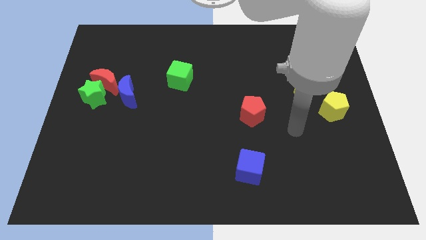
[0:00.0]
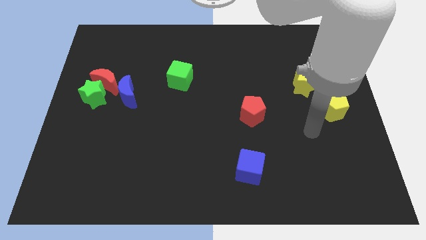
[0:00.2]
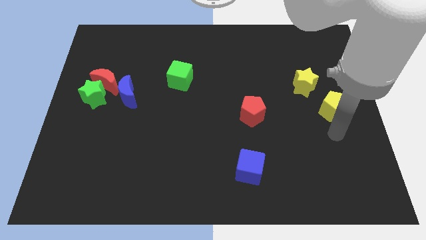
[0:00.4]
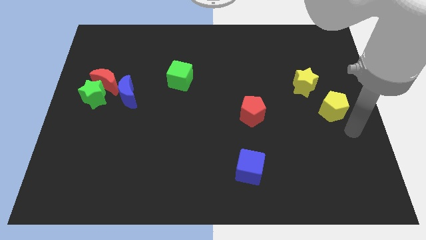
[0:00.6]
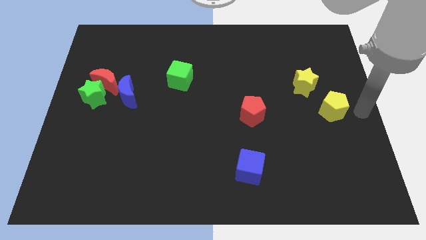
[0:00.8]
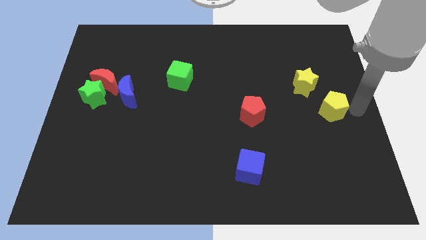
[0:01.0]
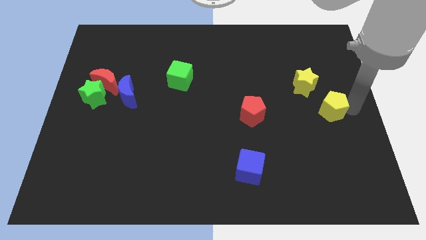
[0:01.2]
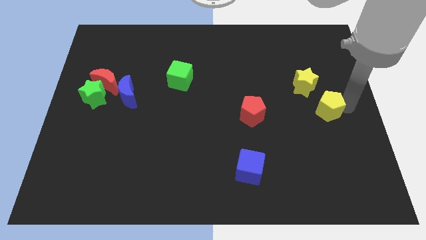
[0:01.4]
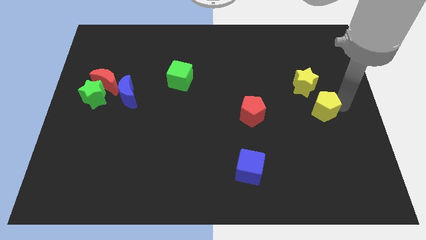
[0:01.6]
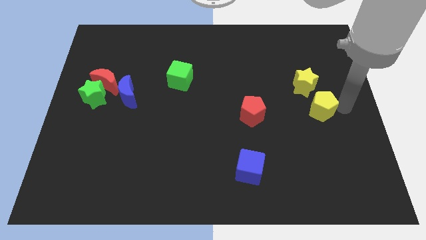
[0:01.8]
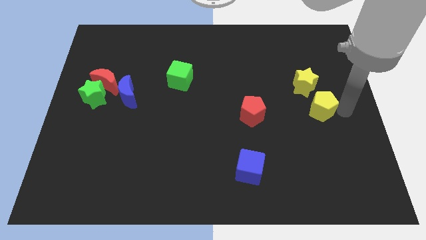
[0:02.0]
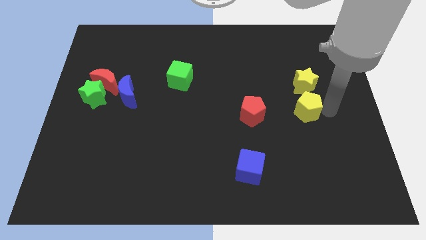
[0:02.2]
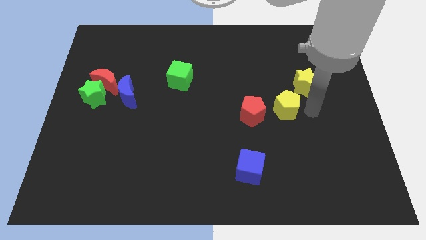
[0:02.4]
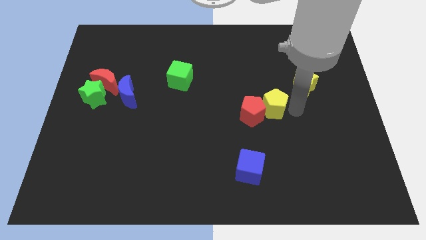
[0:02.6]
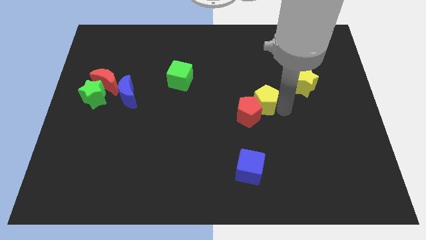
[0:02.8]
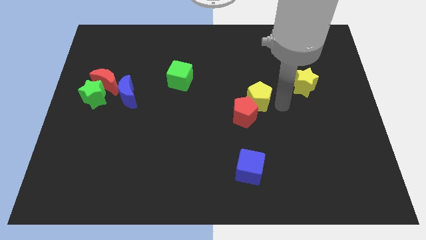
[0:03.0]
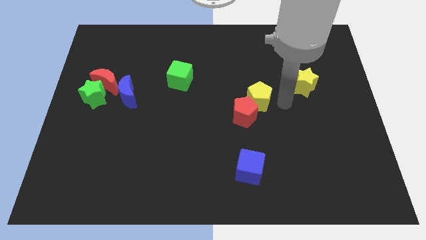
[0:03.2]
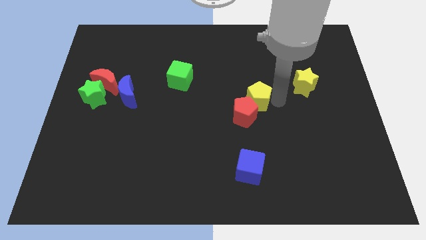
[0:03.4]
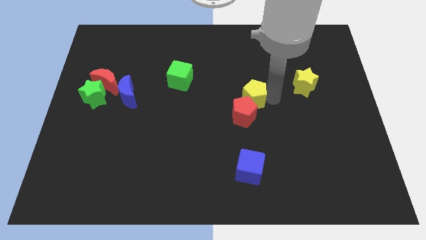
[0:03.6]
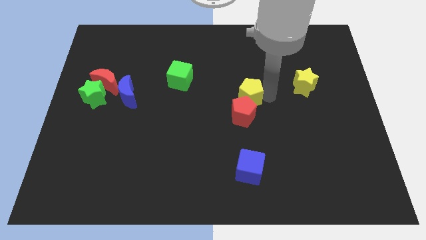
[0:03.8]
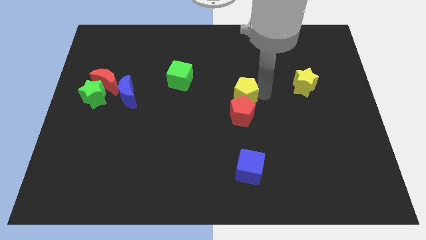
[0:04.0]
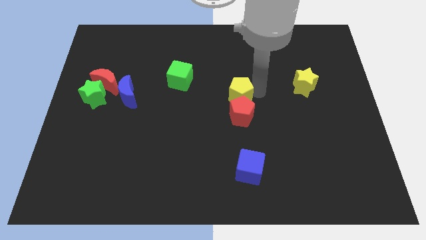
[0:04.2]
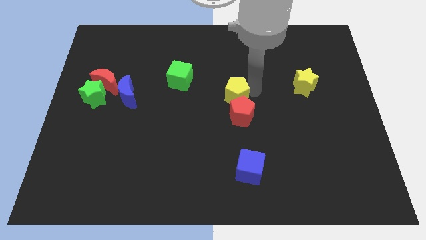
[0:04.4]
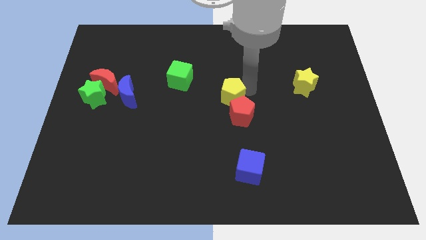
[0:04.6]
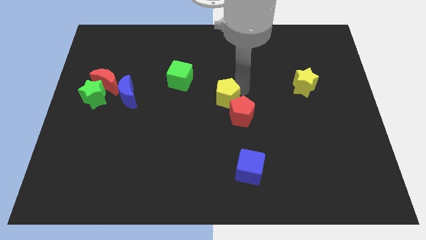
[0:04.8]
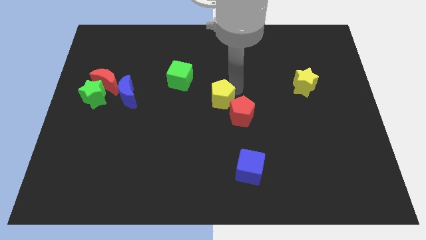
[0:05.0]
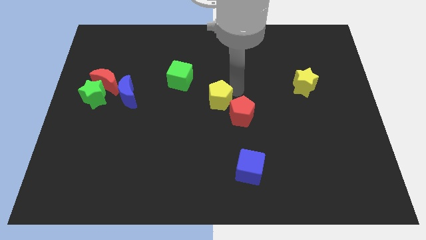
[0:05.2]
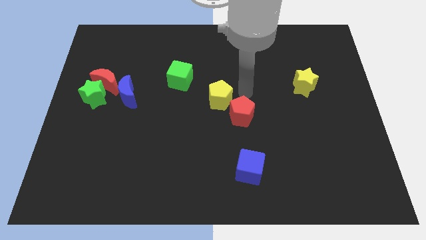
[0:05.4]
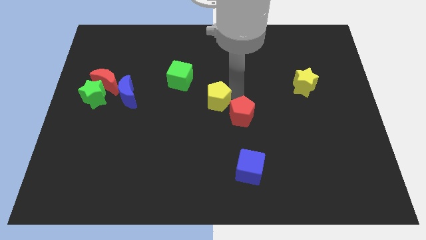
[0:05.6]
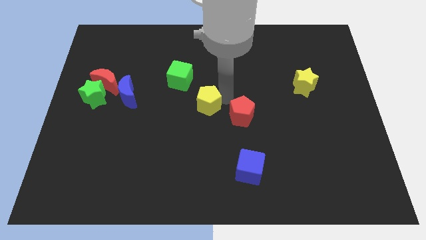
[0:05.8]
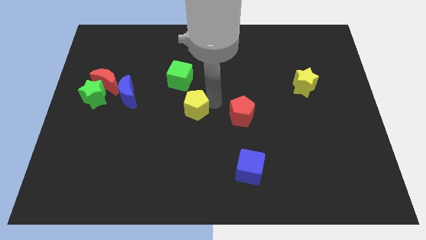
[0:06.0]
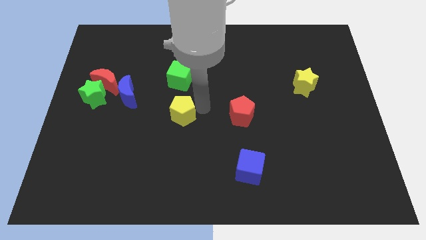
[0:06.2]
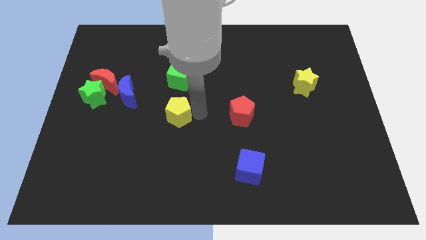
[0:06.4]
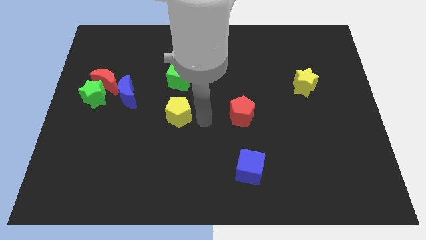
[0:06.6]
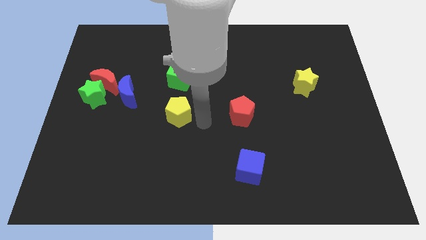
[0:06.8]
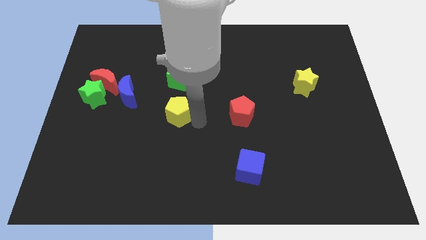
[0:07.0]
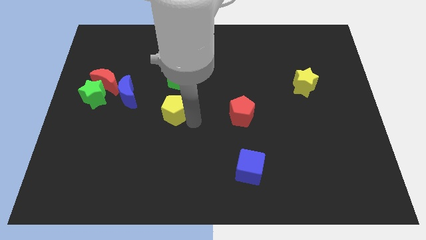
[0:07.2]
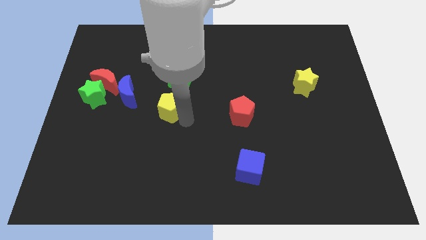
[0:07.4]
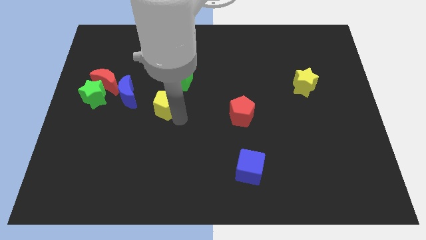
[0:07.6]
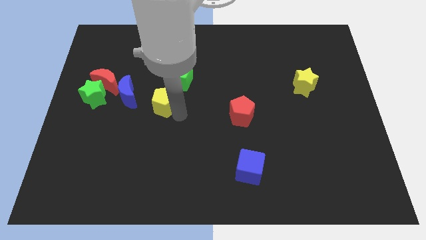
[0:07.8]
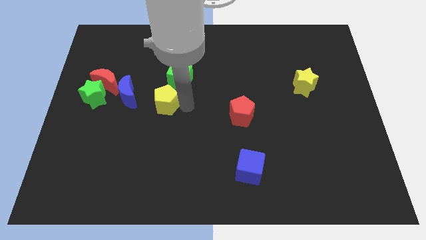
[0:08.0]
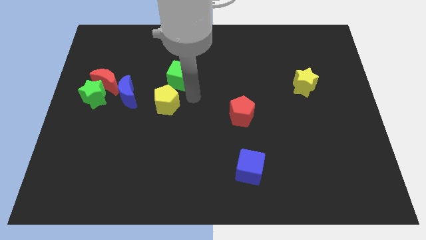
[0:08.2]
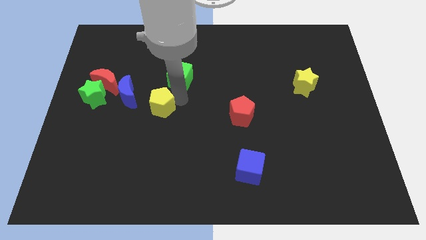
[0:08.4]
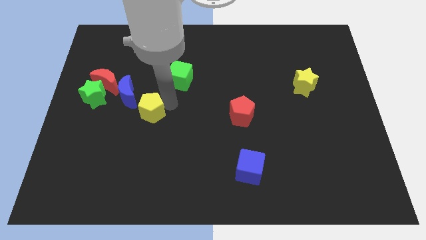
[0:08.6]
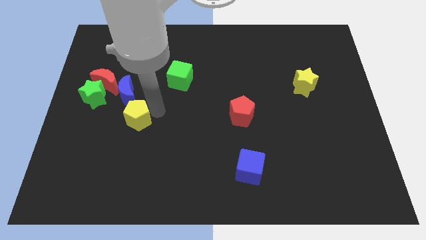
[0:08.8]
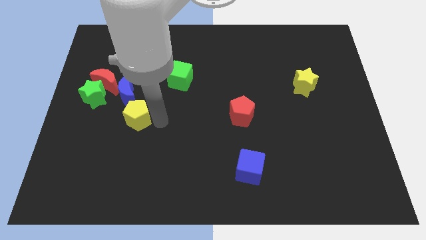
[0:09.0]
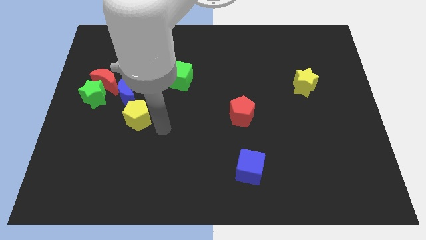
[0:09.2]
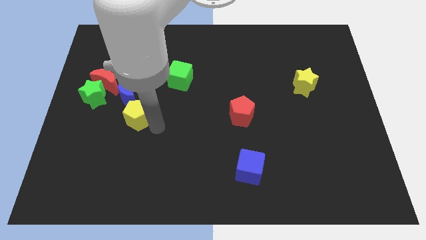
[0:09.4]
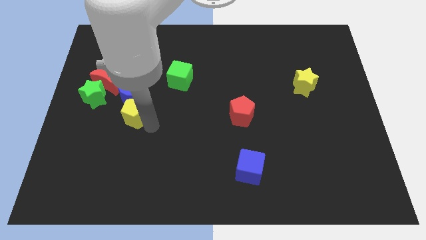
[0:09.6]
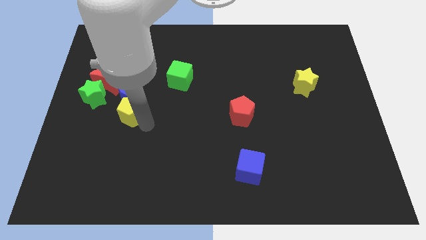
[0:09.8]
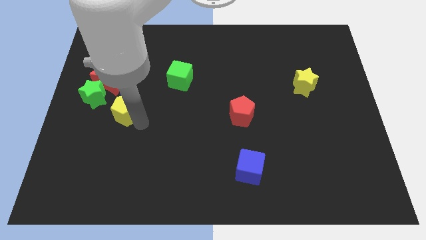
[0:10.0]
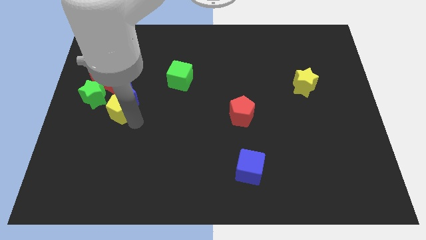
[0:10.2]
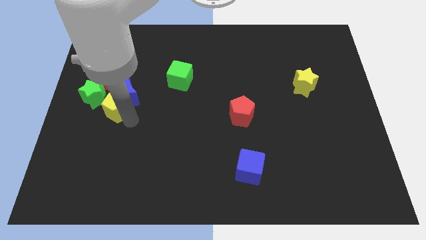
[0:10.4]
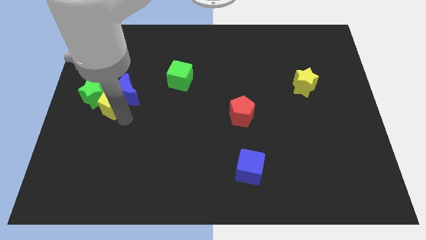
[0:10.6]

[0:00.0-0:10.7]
push the yellow pentagon towards the green star
